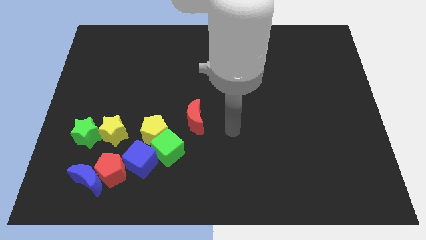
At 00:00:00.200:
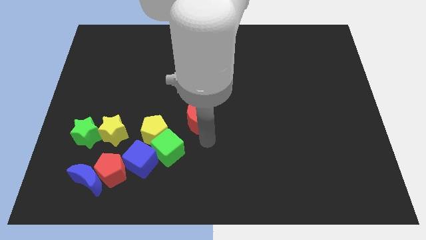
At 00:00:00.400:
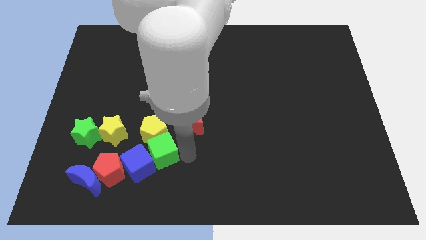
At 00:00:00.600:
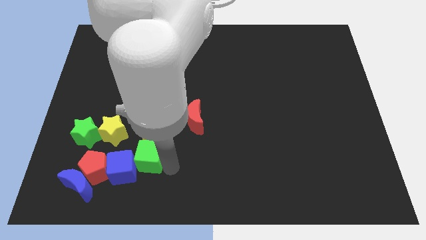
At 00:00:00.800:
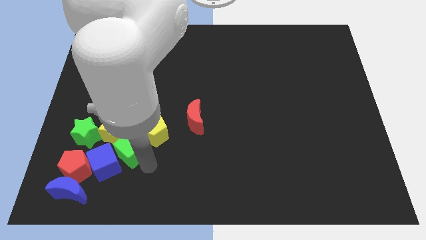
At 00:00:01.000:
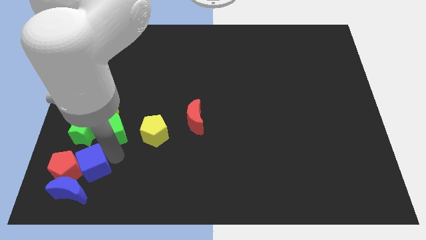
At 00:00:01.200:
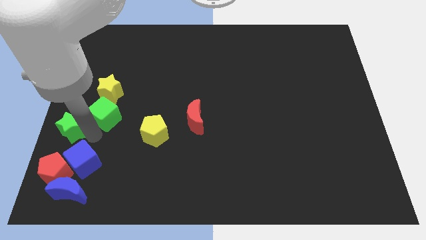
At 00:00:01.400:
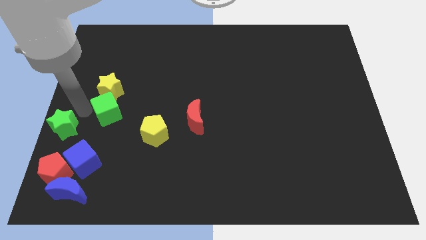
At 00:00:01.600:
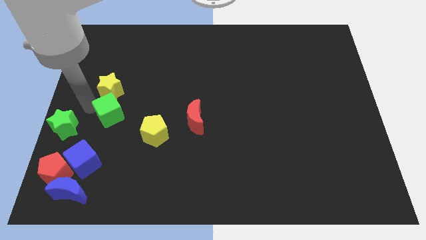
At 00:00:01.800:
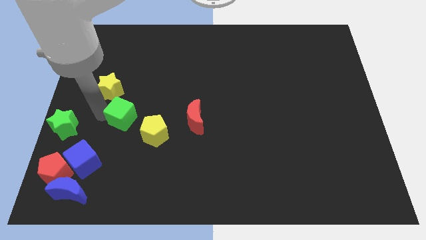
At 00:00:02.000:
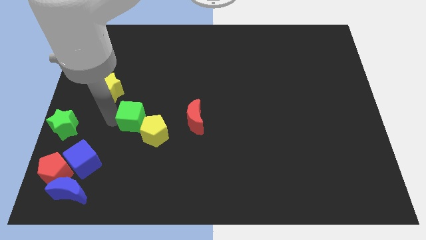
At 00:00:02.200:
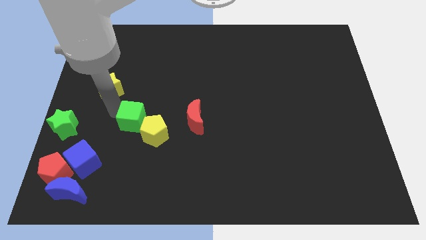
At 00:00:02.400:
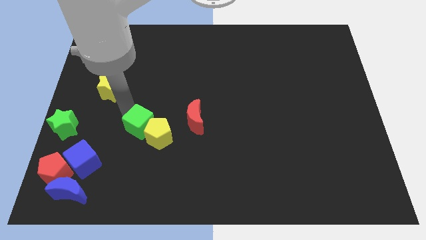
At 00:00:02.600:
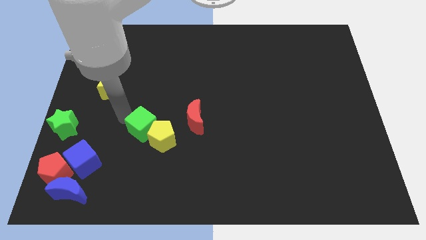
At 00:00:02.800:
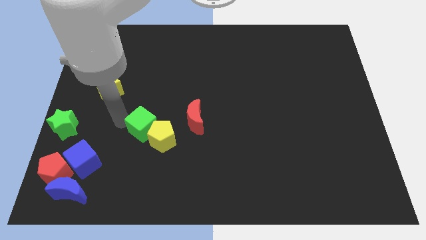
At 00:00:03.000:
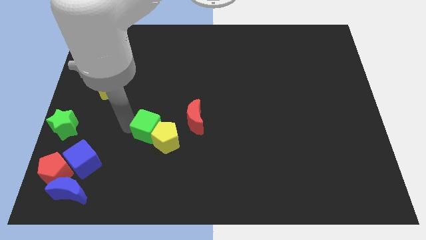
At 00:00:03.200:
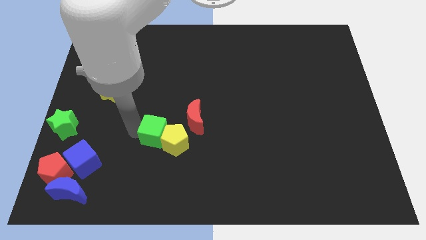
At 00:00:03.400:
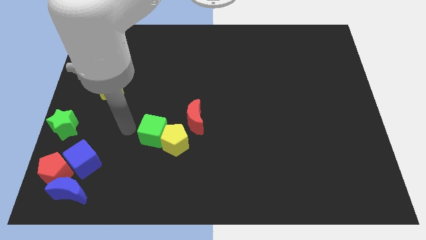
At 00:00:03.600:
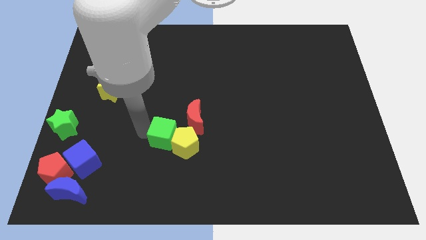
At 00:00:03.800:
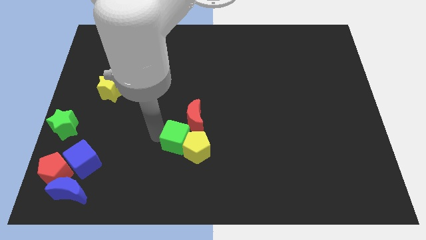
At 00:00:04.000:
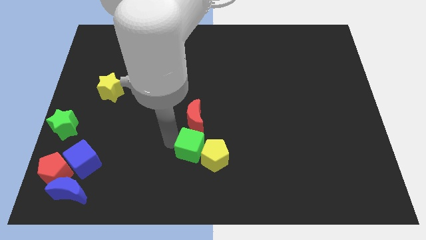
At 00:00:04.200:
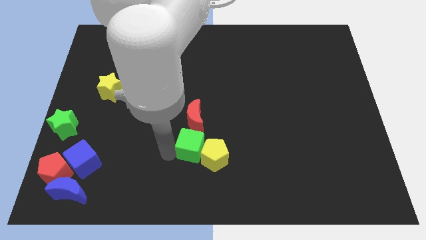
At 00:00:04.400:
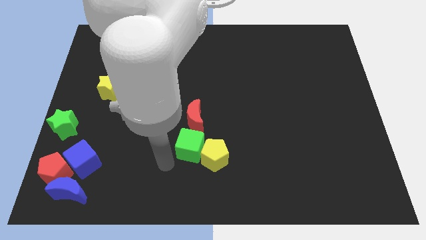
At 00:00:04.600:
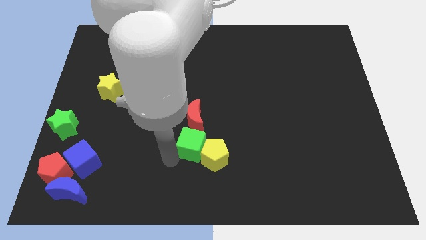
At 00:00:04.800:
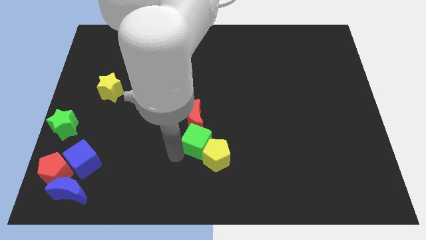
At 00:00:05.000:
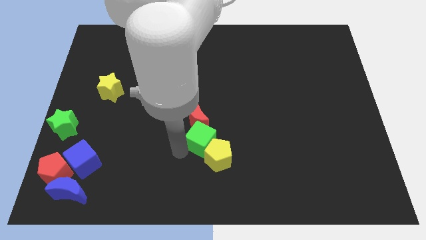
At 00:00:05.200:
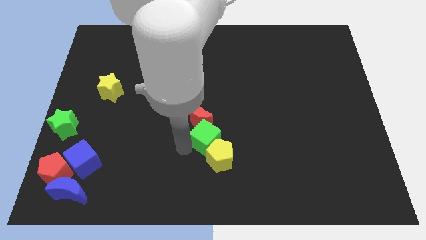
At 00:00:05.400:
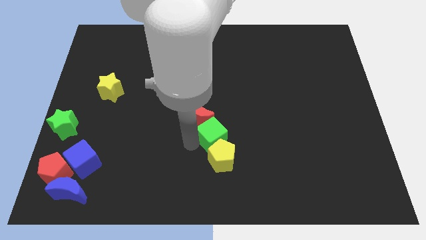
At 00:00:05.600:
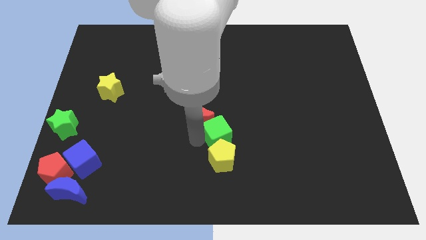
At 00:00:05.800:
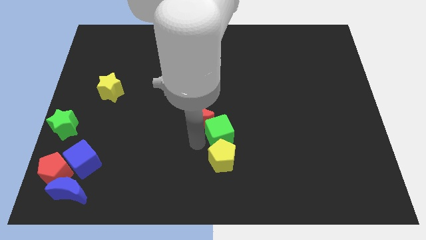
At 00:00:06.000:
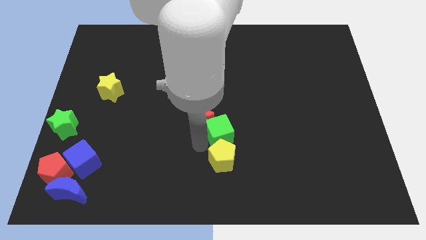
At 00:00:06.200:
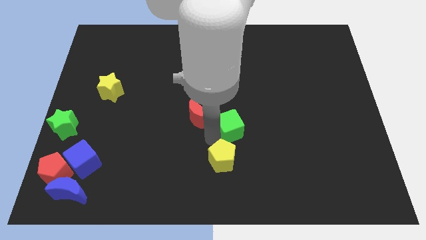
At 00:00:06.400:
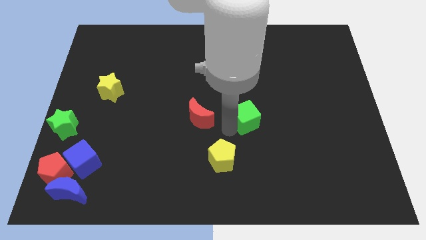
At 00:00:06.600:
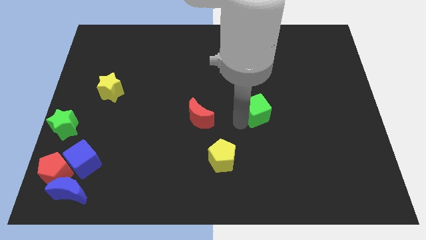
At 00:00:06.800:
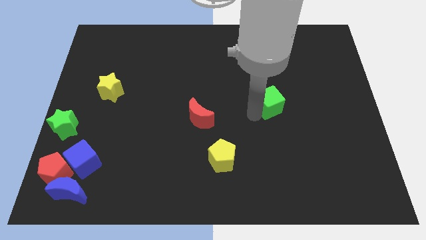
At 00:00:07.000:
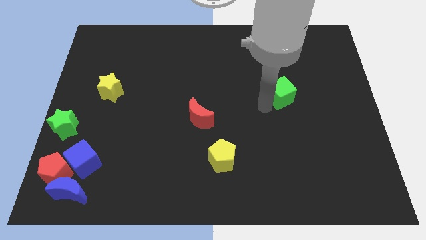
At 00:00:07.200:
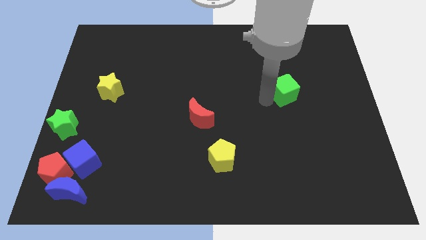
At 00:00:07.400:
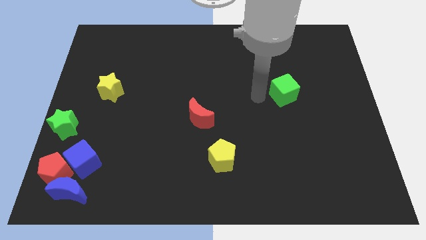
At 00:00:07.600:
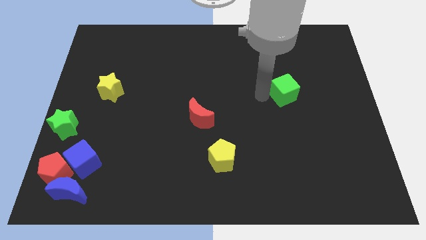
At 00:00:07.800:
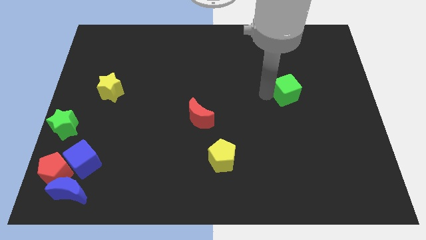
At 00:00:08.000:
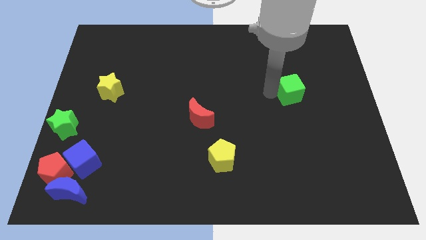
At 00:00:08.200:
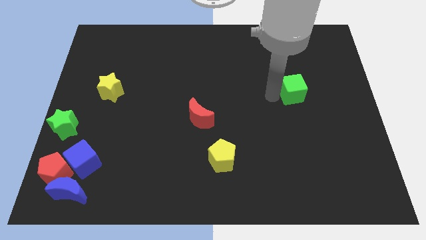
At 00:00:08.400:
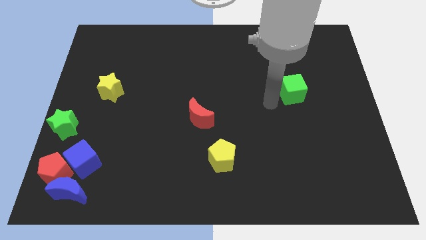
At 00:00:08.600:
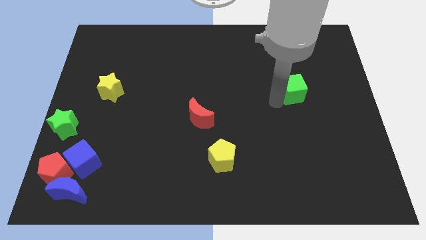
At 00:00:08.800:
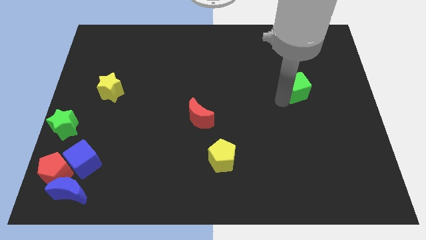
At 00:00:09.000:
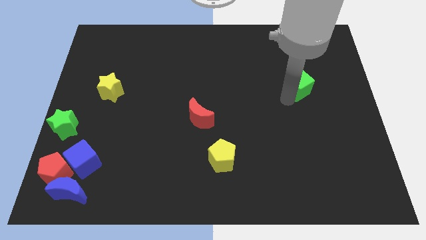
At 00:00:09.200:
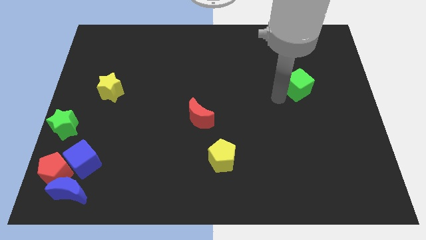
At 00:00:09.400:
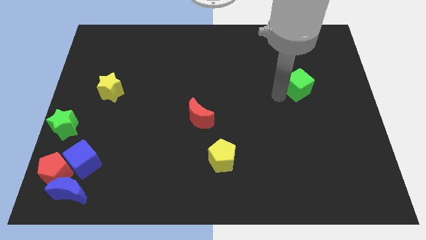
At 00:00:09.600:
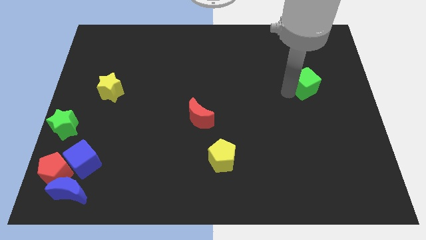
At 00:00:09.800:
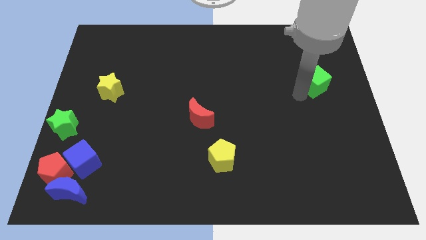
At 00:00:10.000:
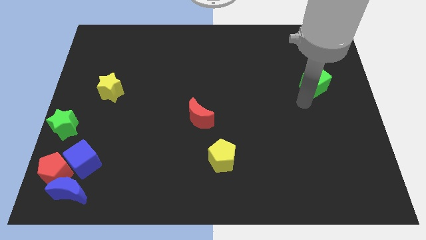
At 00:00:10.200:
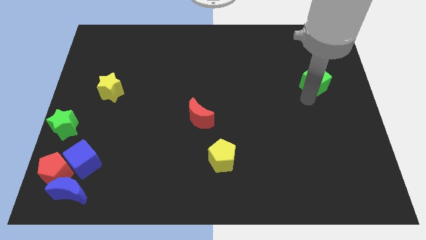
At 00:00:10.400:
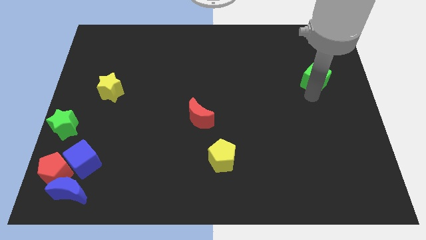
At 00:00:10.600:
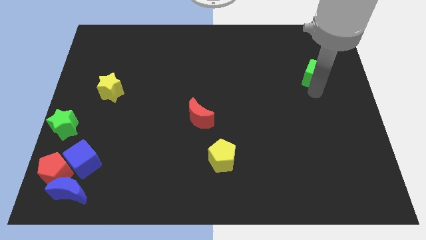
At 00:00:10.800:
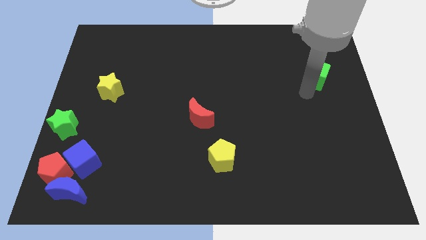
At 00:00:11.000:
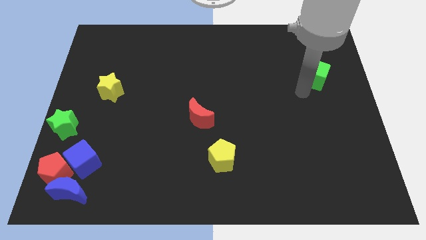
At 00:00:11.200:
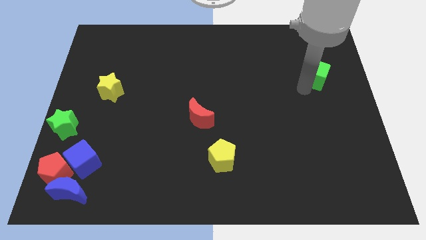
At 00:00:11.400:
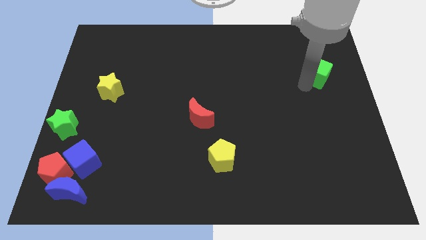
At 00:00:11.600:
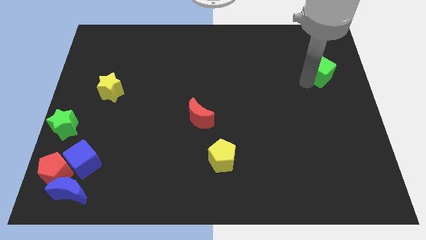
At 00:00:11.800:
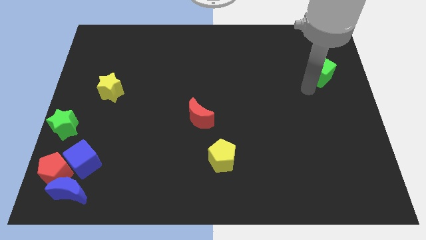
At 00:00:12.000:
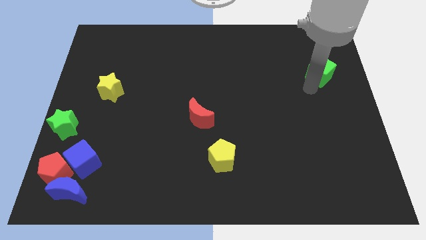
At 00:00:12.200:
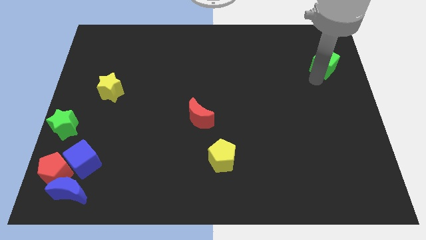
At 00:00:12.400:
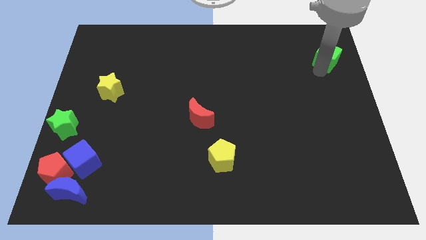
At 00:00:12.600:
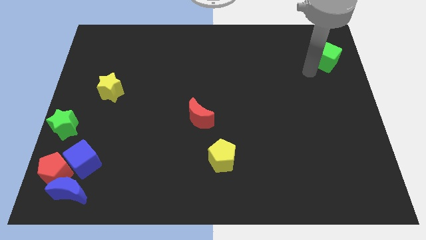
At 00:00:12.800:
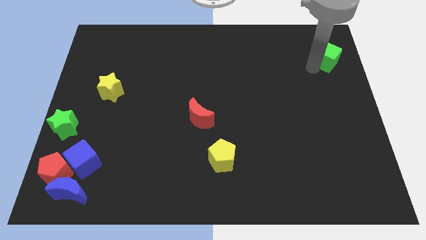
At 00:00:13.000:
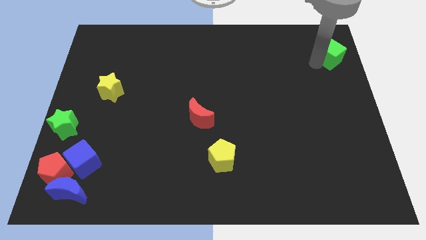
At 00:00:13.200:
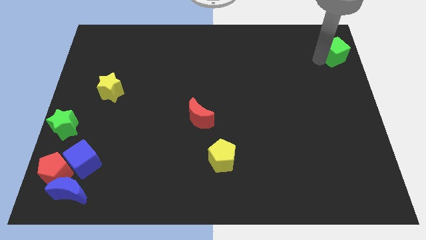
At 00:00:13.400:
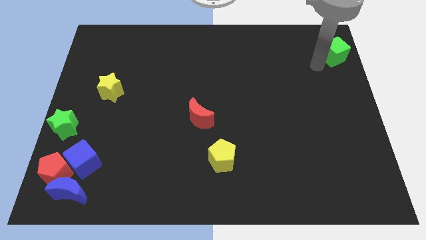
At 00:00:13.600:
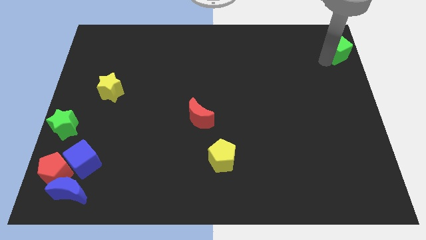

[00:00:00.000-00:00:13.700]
put the green cube to the upper right corner
